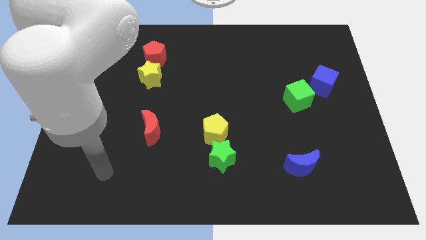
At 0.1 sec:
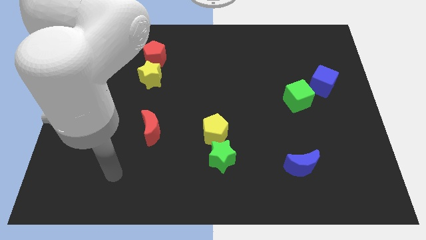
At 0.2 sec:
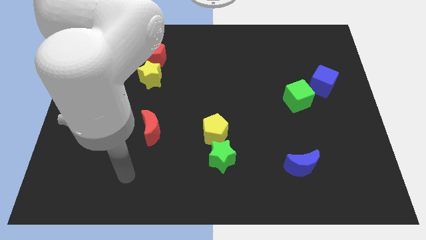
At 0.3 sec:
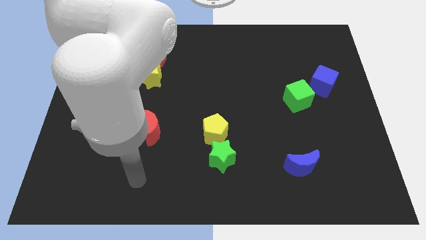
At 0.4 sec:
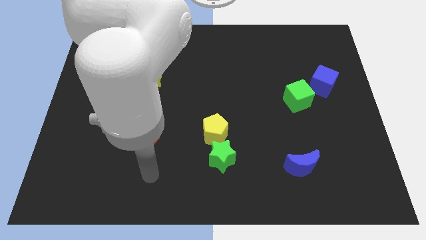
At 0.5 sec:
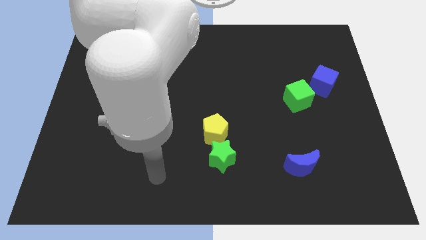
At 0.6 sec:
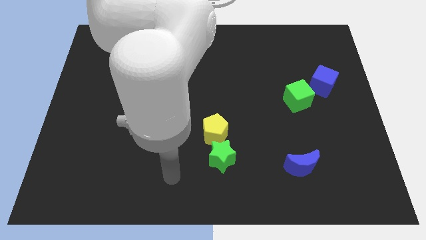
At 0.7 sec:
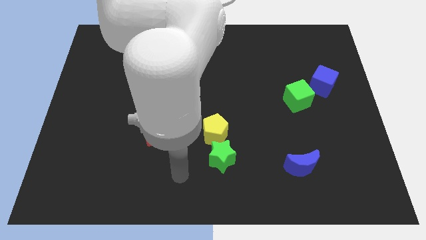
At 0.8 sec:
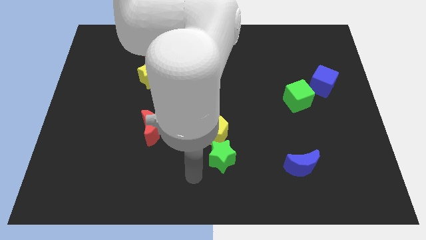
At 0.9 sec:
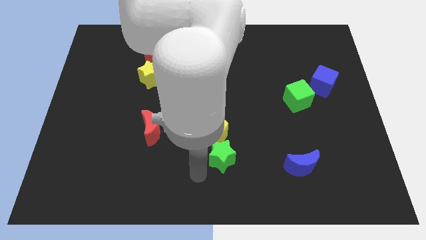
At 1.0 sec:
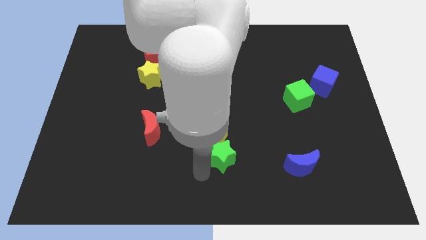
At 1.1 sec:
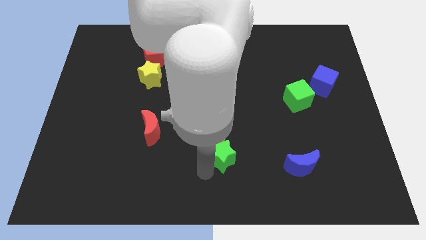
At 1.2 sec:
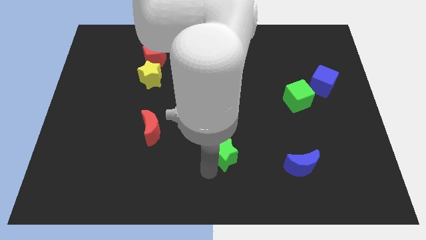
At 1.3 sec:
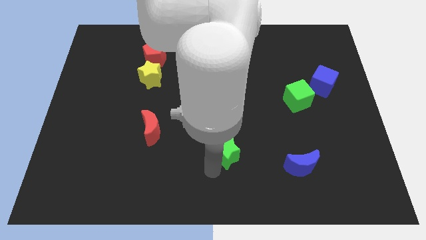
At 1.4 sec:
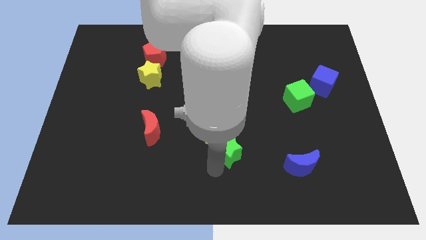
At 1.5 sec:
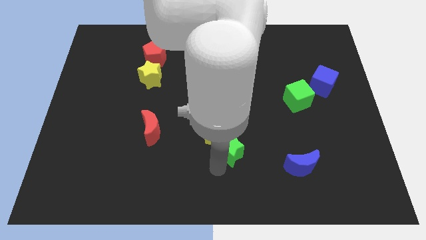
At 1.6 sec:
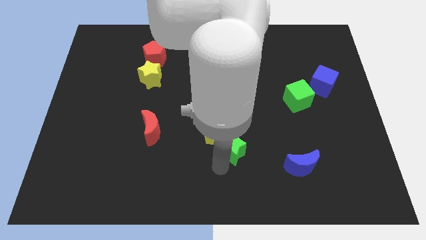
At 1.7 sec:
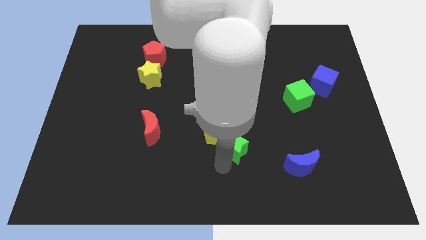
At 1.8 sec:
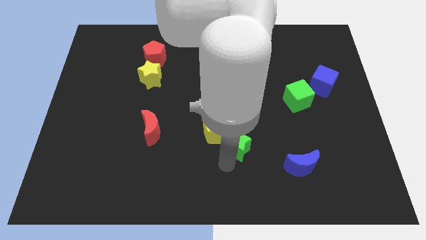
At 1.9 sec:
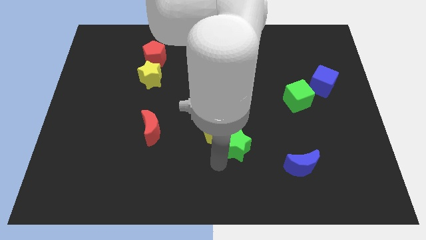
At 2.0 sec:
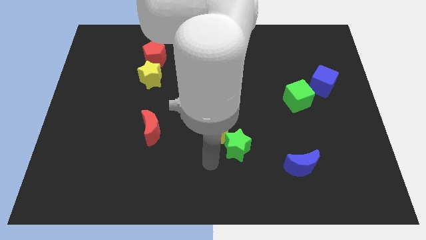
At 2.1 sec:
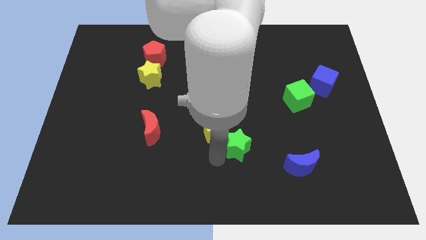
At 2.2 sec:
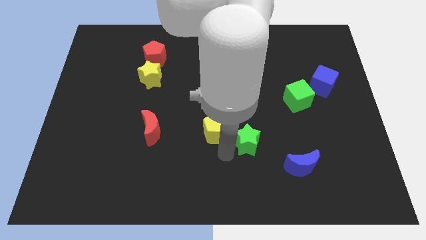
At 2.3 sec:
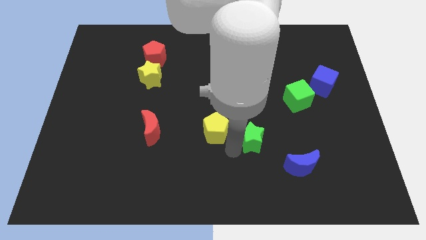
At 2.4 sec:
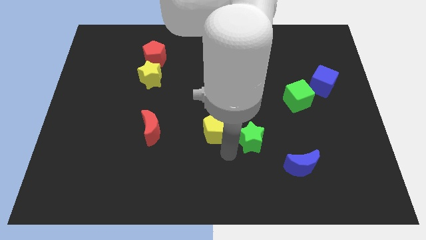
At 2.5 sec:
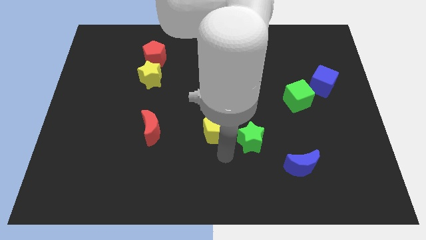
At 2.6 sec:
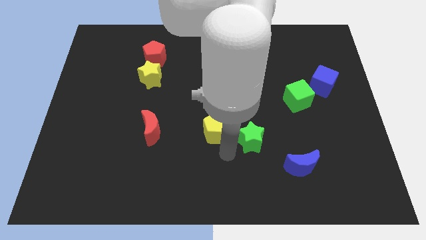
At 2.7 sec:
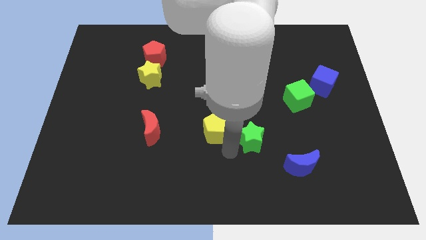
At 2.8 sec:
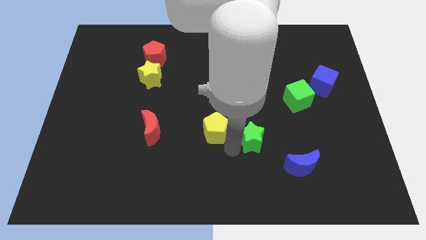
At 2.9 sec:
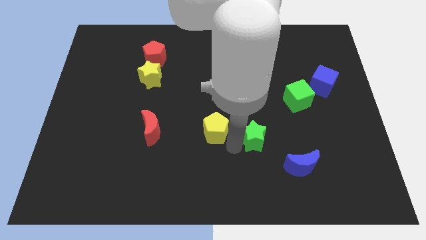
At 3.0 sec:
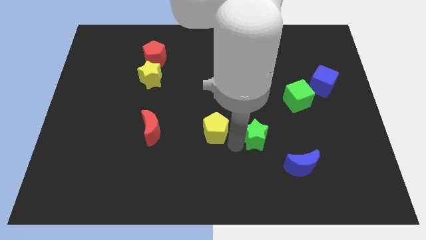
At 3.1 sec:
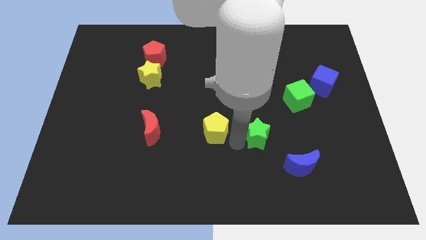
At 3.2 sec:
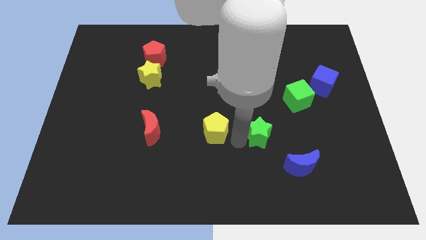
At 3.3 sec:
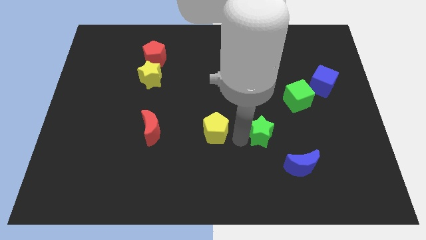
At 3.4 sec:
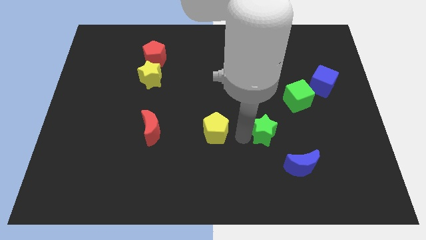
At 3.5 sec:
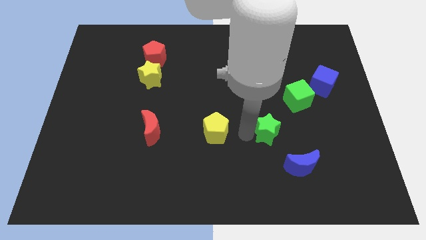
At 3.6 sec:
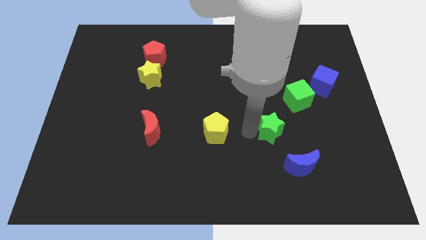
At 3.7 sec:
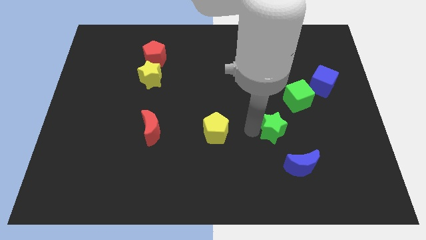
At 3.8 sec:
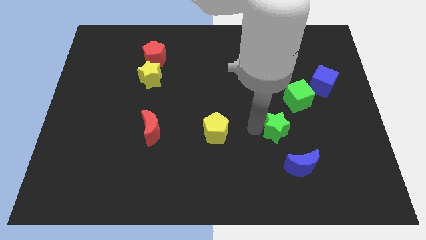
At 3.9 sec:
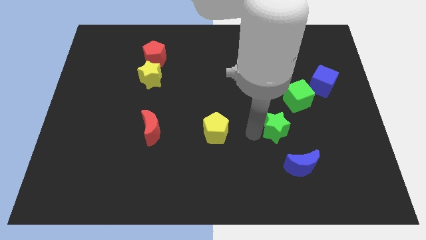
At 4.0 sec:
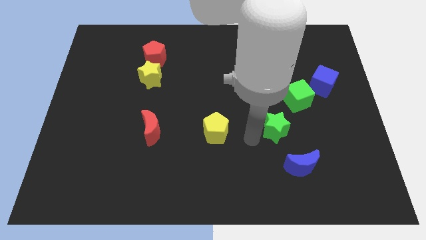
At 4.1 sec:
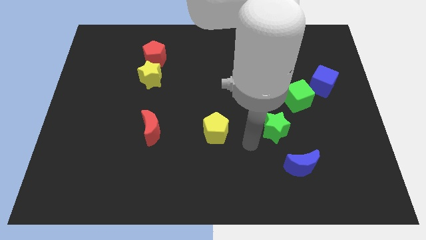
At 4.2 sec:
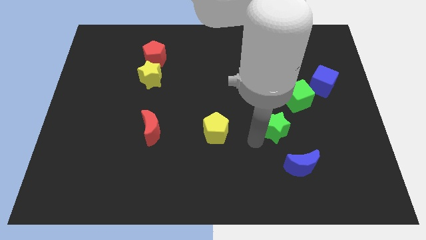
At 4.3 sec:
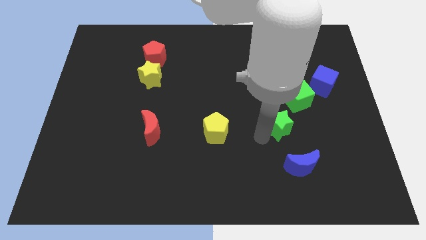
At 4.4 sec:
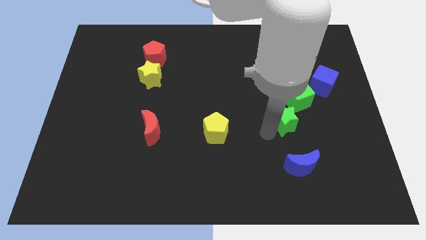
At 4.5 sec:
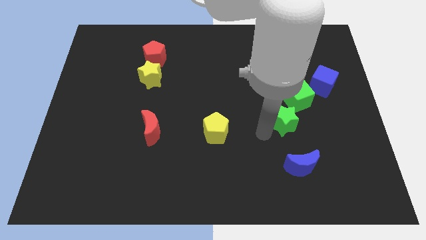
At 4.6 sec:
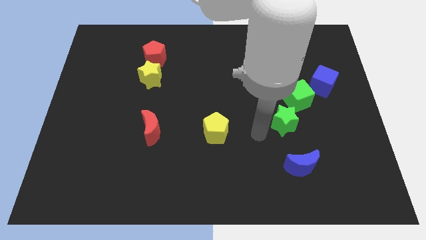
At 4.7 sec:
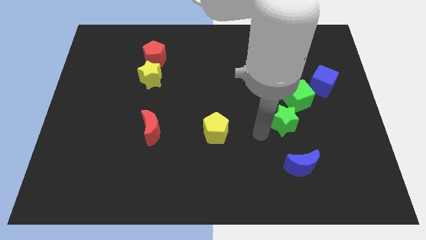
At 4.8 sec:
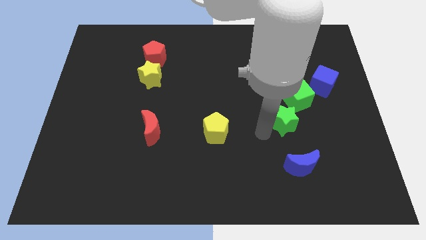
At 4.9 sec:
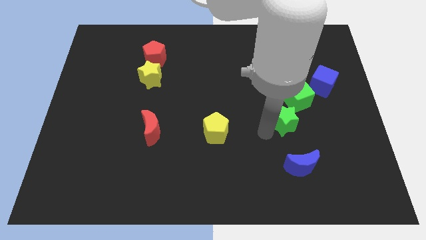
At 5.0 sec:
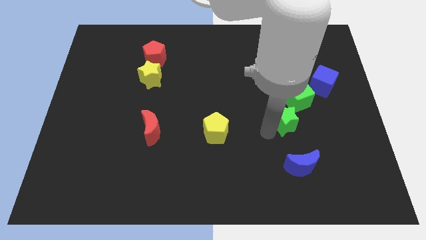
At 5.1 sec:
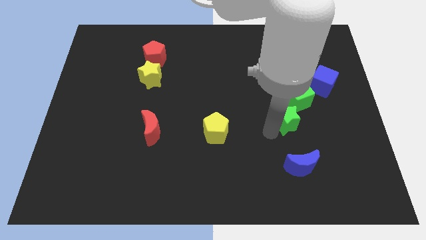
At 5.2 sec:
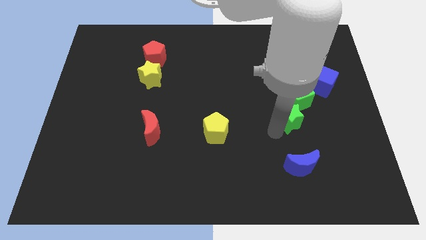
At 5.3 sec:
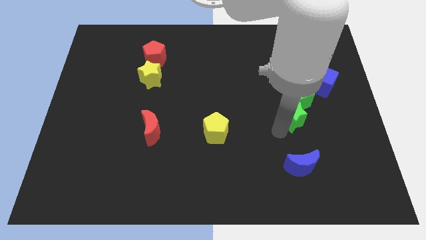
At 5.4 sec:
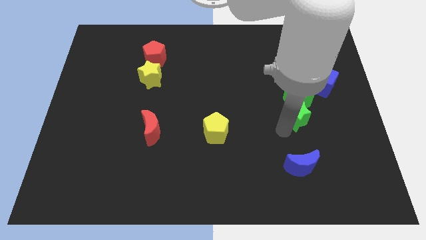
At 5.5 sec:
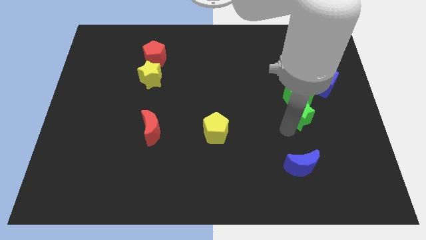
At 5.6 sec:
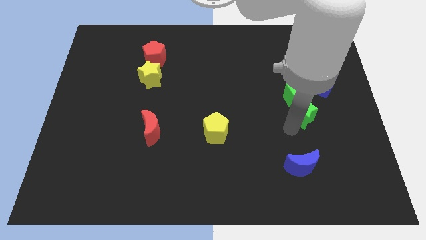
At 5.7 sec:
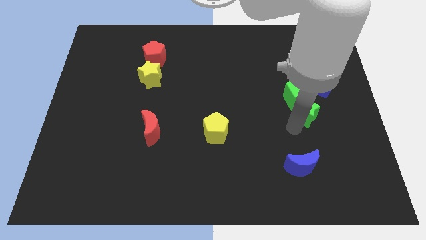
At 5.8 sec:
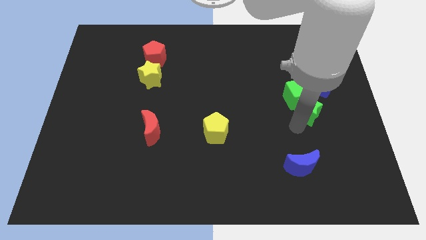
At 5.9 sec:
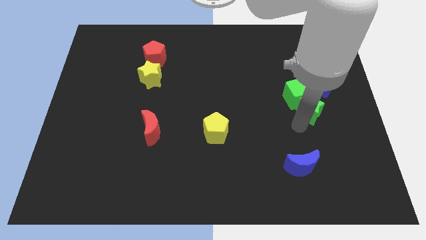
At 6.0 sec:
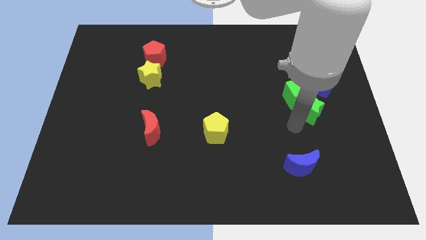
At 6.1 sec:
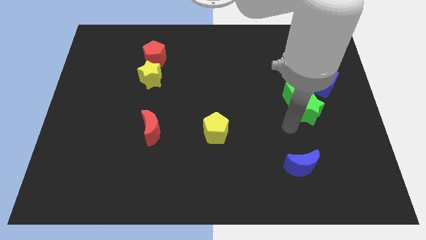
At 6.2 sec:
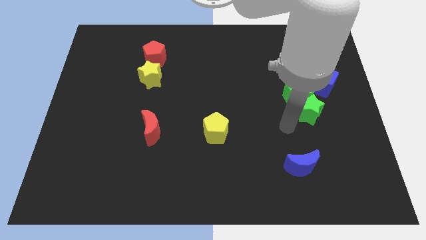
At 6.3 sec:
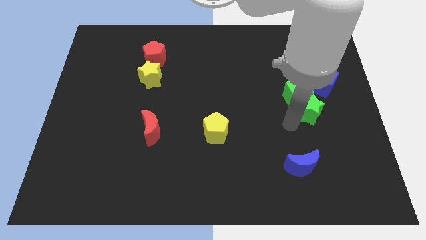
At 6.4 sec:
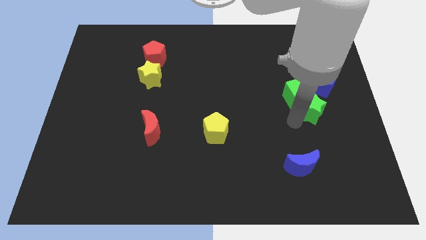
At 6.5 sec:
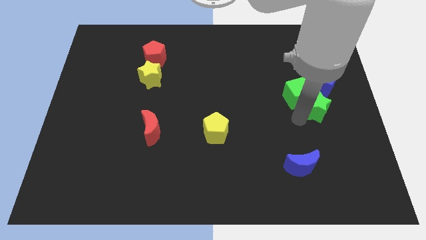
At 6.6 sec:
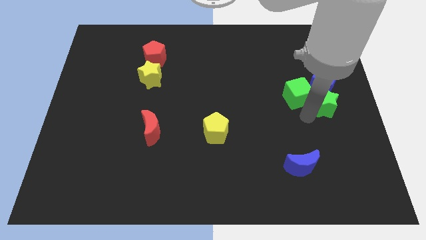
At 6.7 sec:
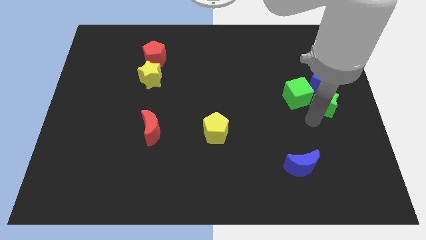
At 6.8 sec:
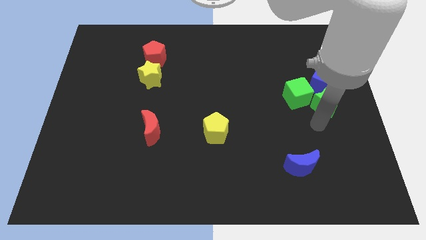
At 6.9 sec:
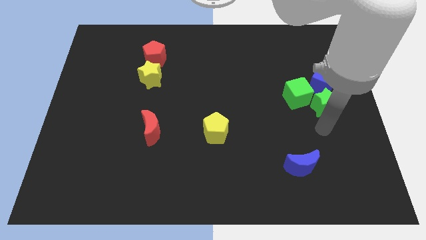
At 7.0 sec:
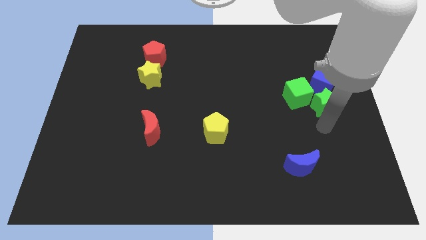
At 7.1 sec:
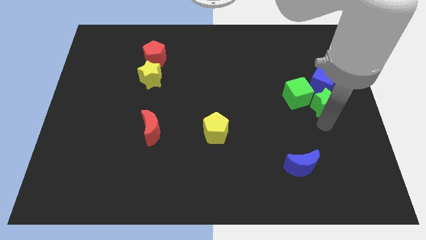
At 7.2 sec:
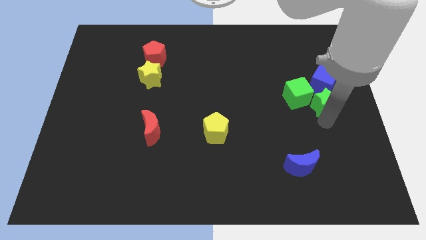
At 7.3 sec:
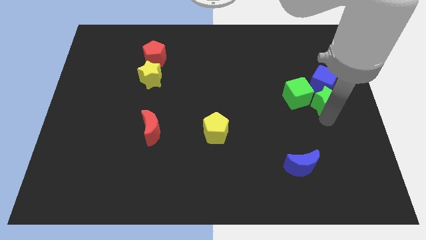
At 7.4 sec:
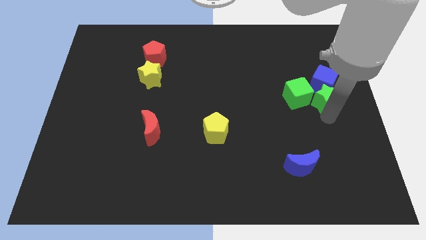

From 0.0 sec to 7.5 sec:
push the green star towards the blue cube
